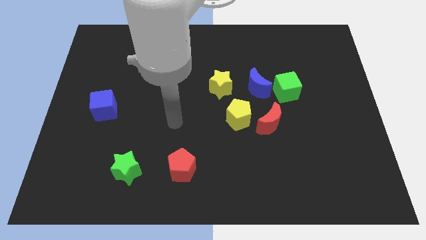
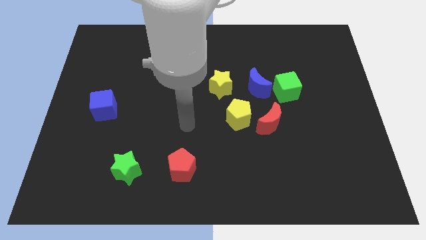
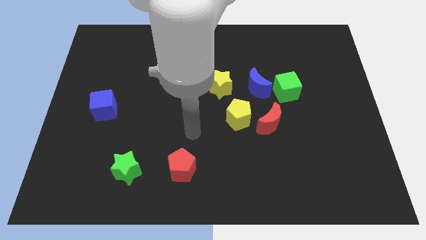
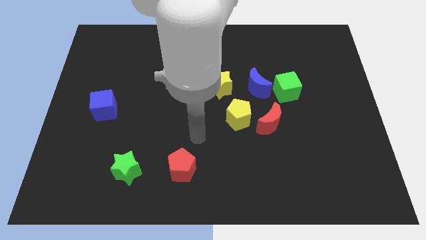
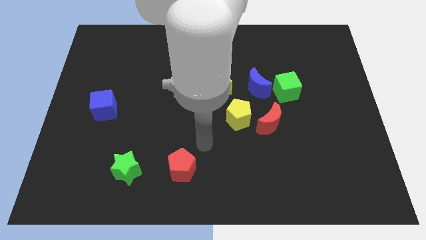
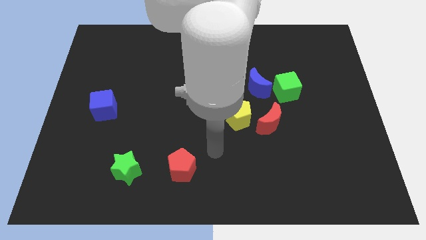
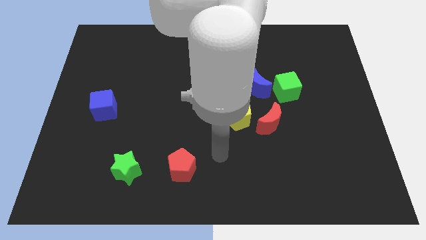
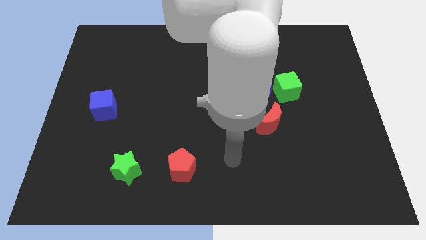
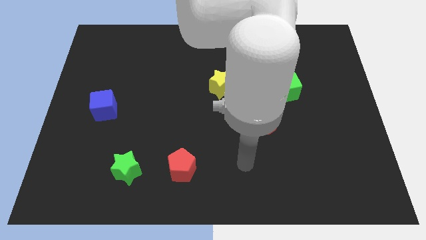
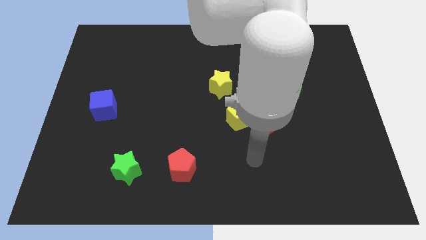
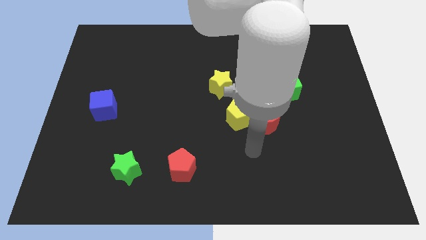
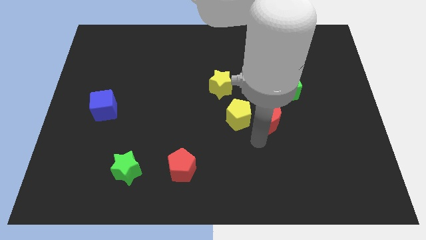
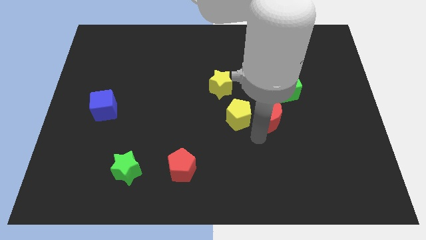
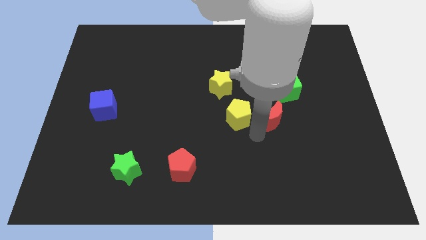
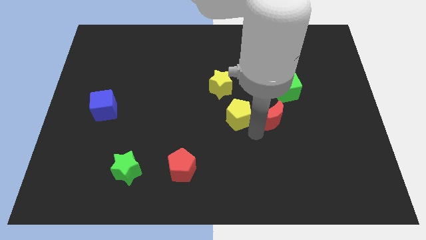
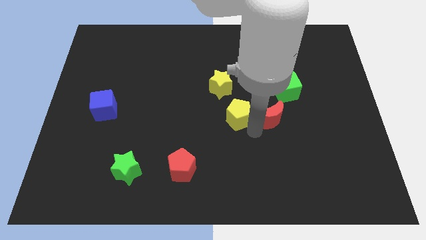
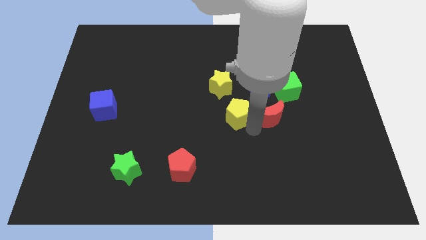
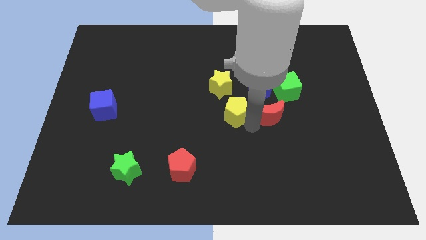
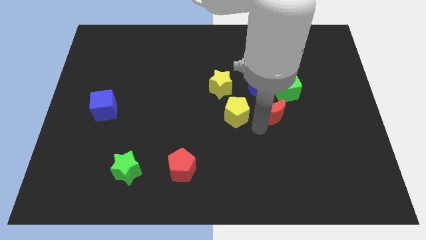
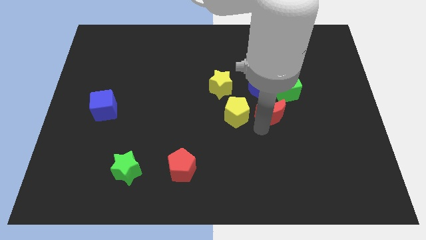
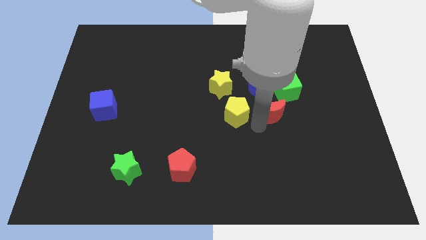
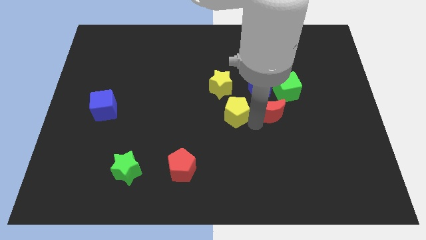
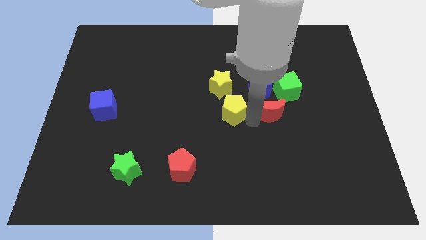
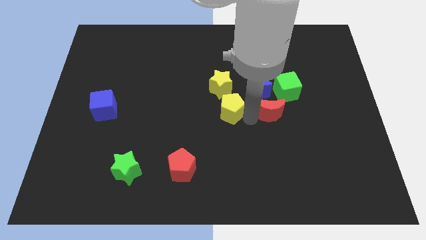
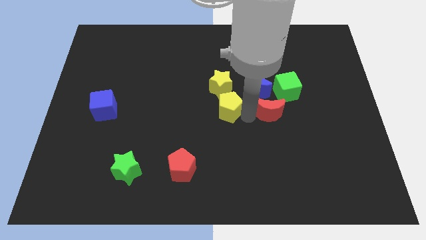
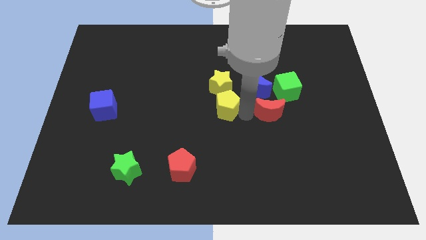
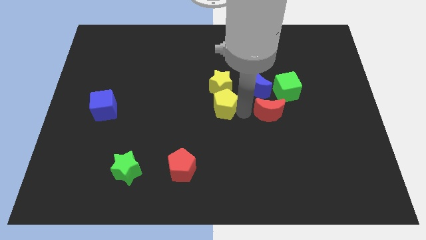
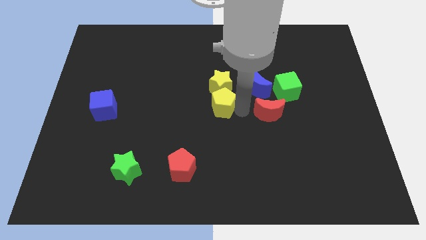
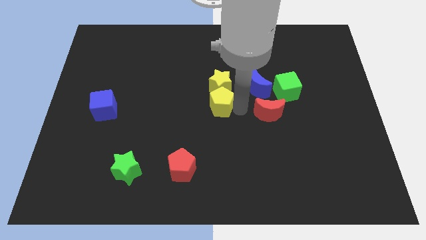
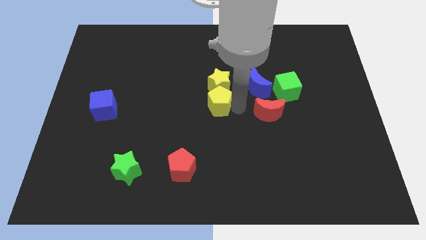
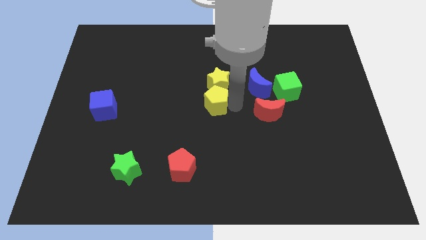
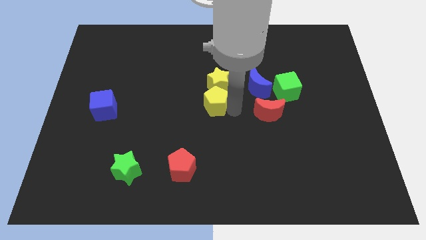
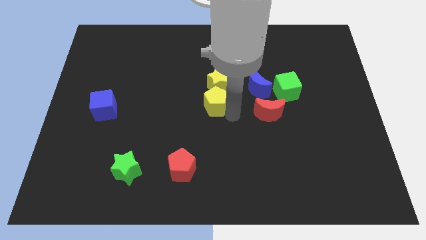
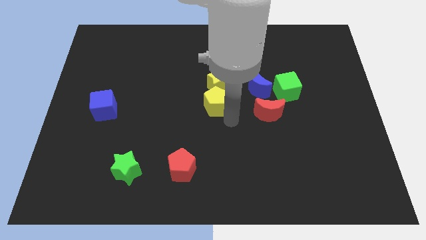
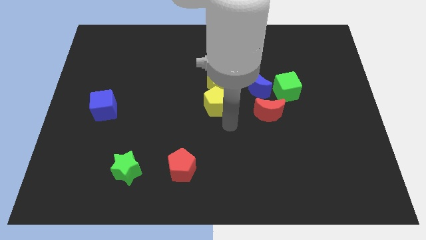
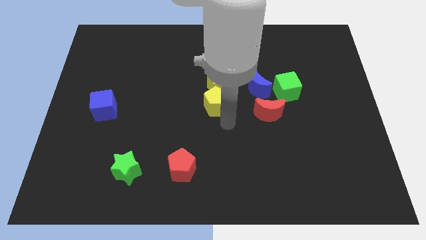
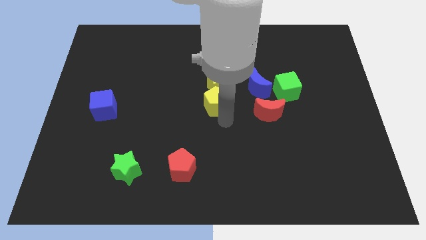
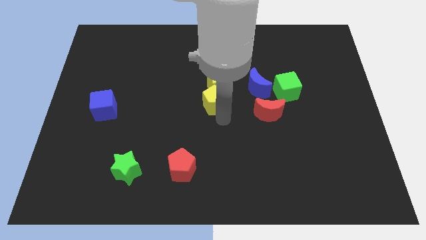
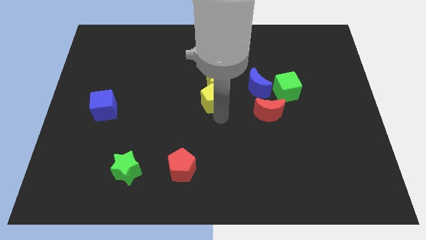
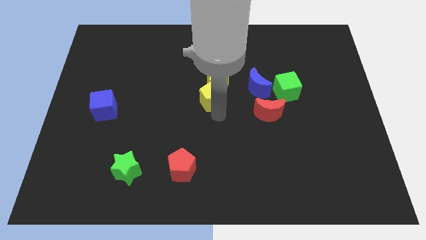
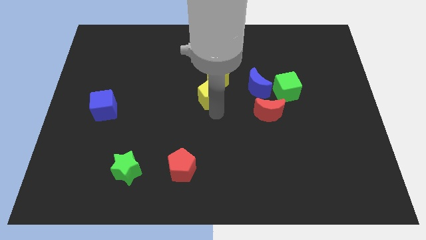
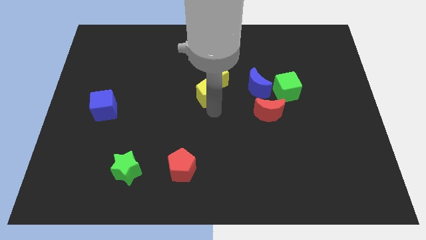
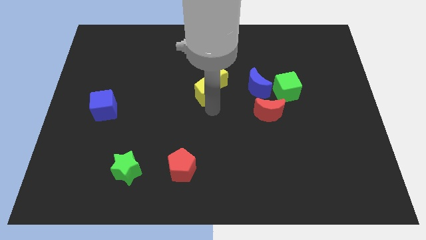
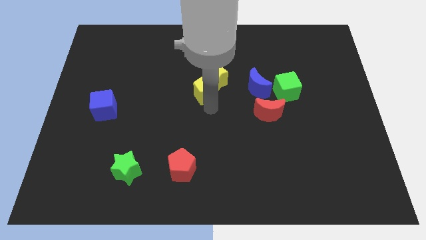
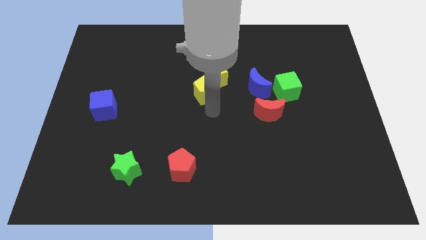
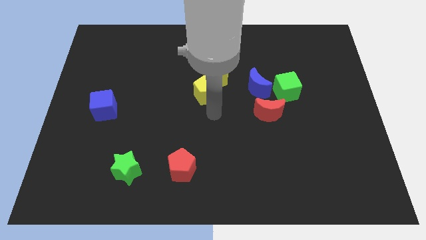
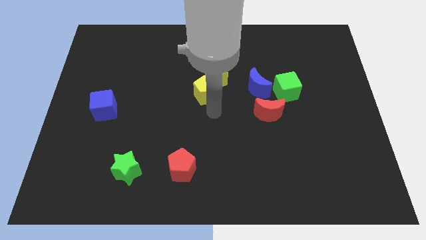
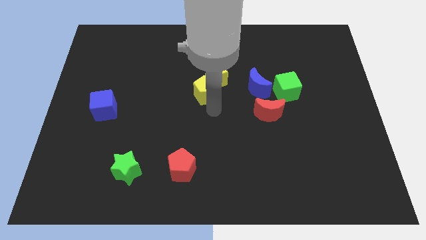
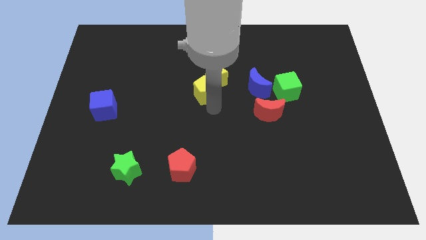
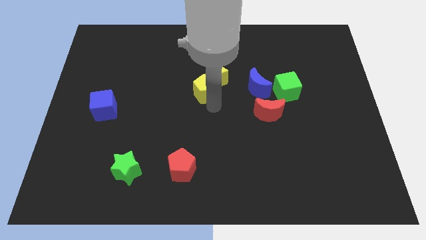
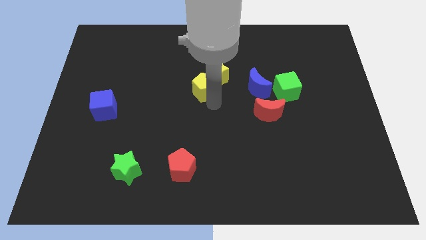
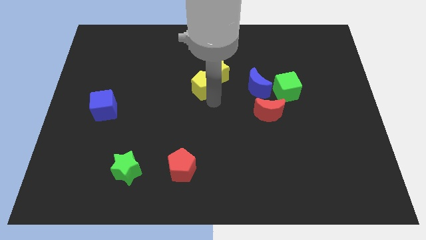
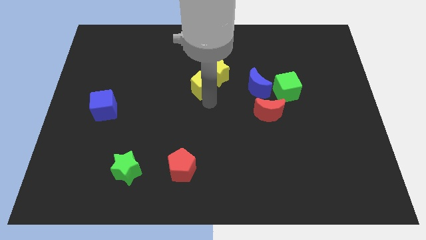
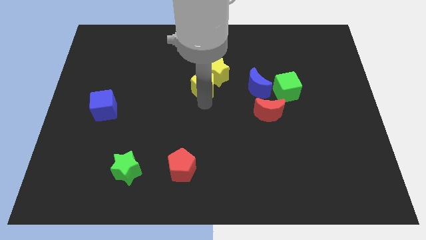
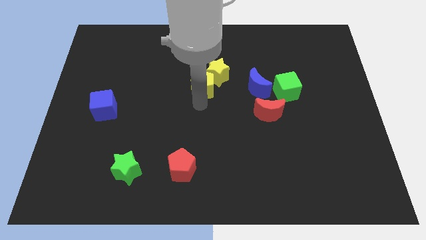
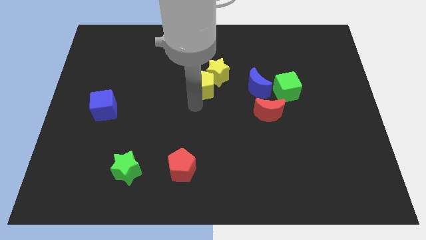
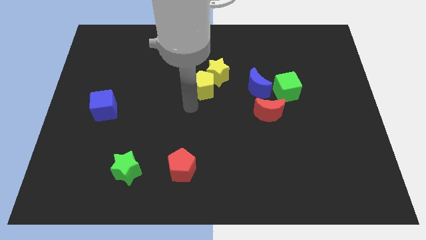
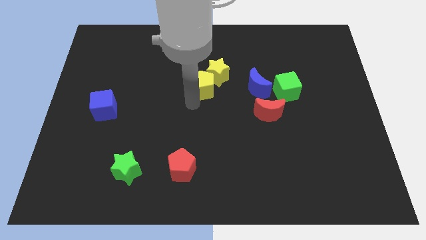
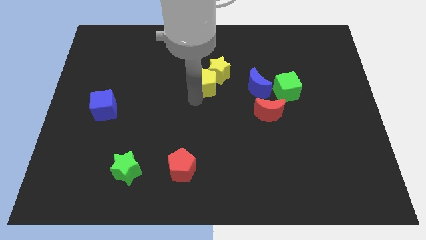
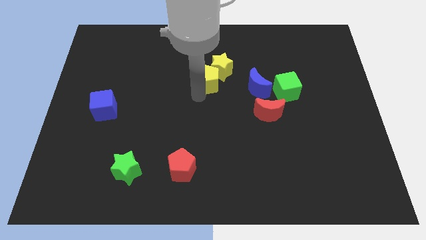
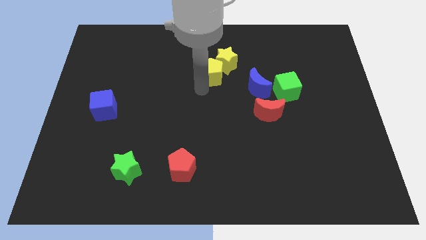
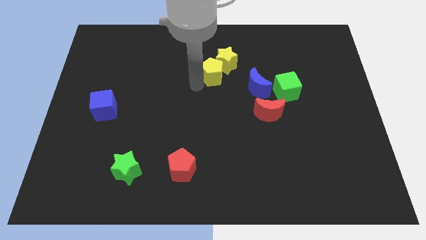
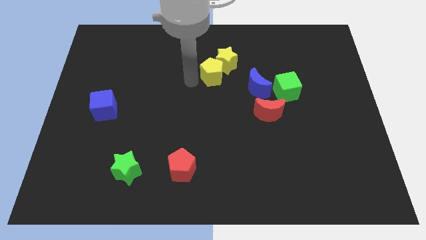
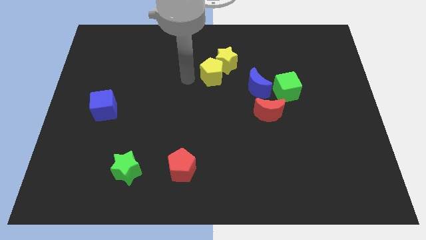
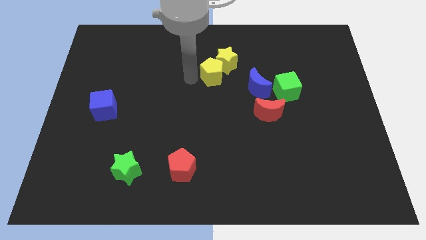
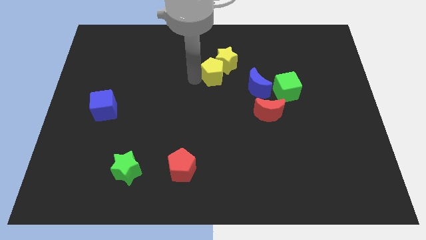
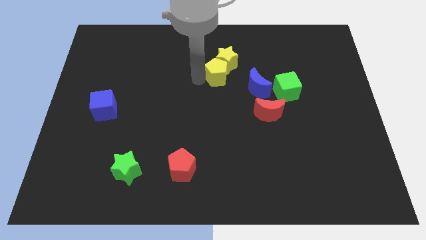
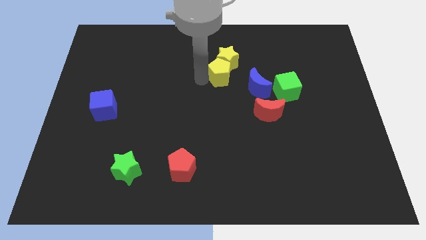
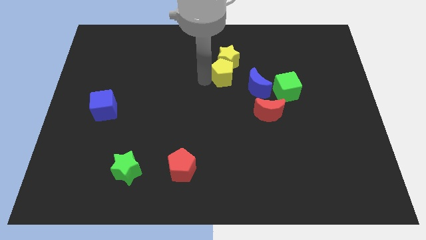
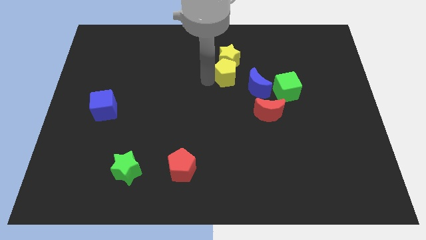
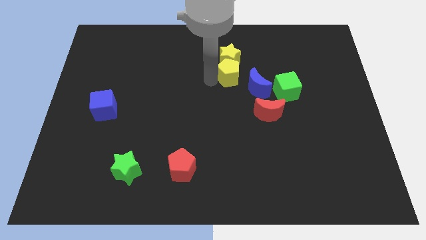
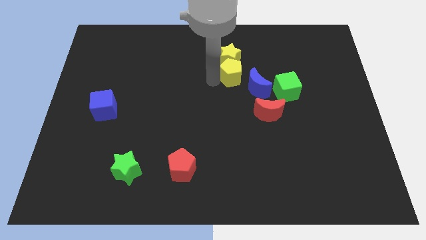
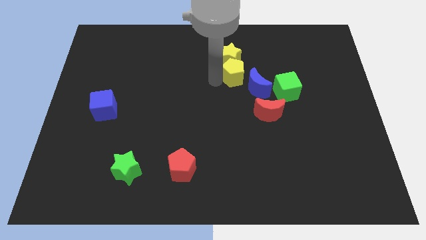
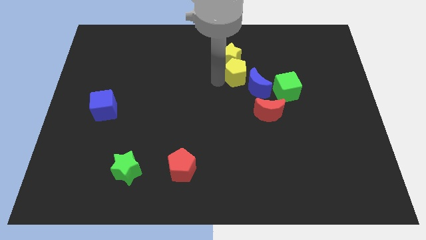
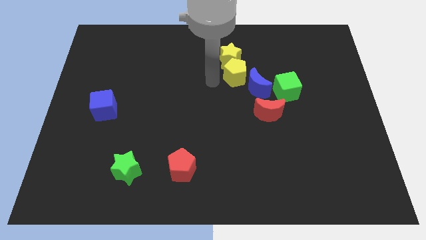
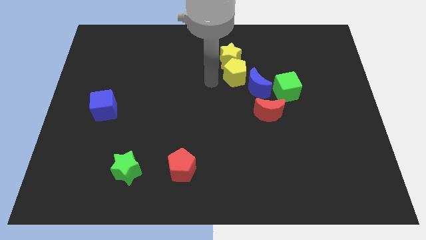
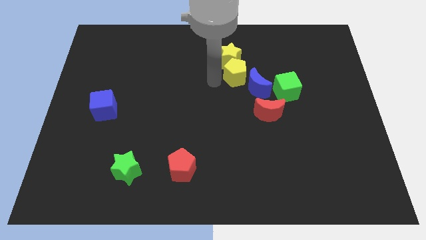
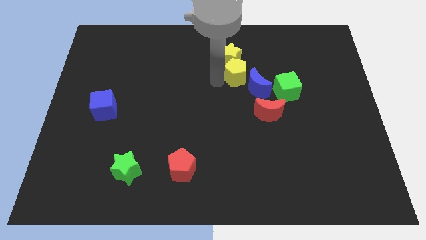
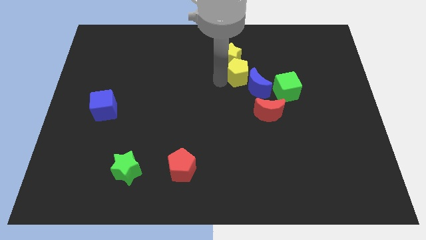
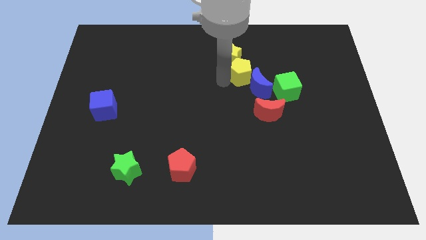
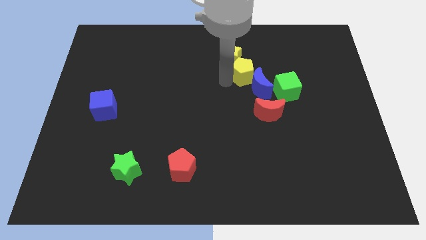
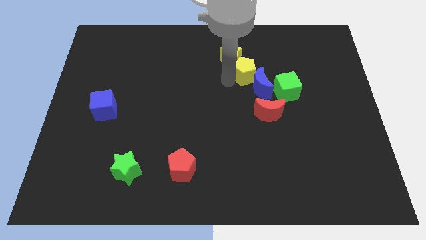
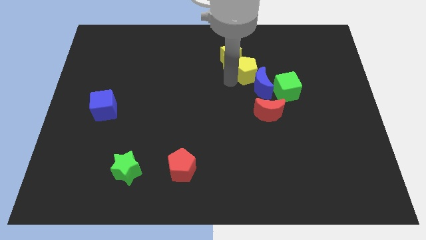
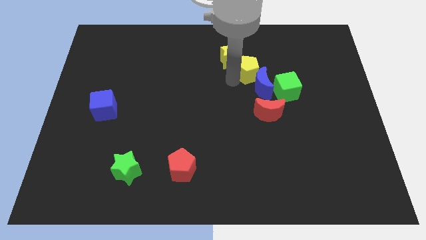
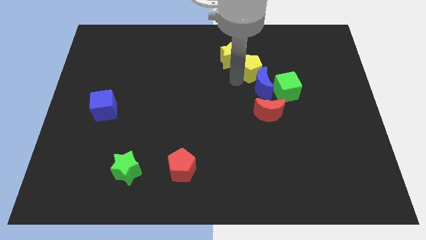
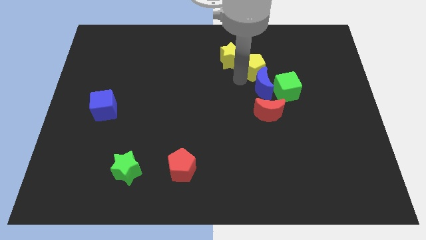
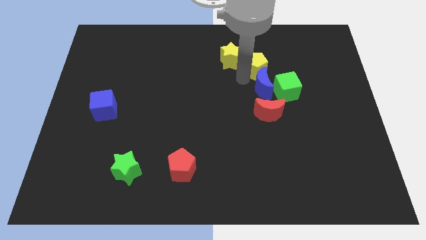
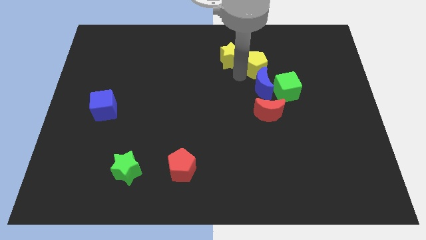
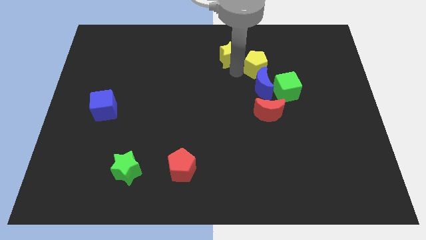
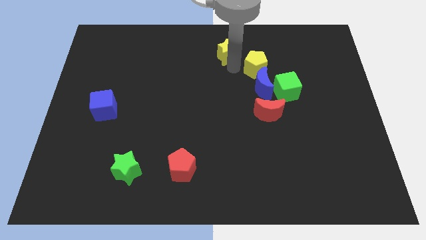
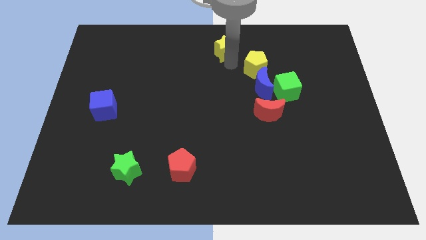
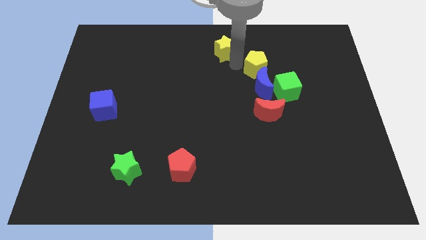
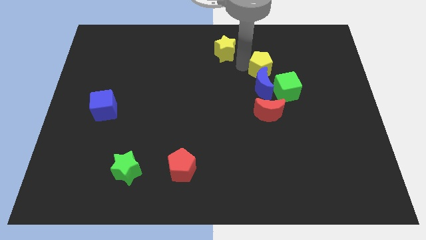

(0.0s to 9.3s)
move the yellow pentagon to the top right side of the blue moon
